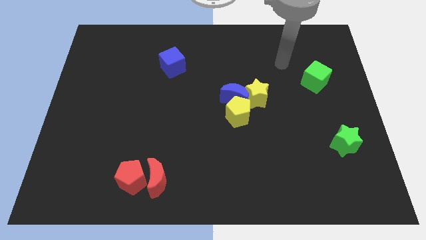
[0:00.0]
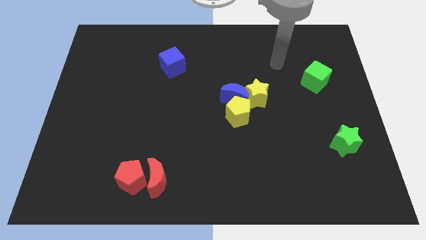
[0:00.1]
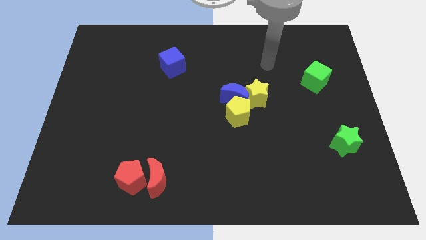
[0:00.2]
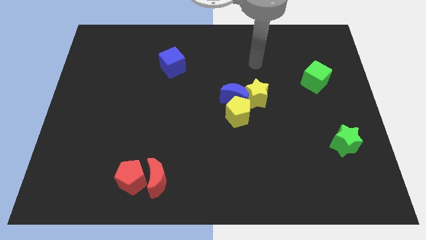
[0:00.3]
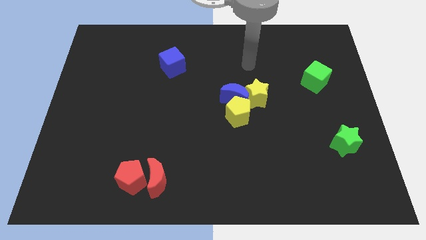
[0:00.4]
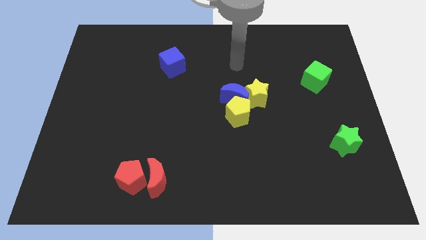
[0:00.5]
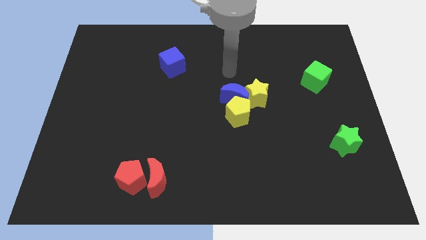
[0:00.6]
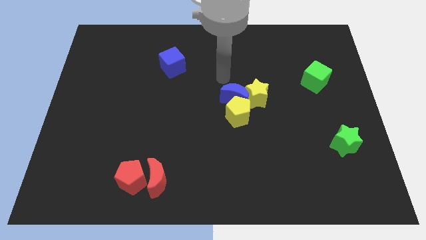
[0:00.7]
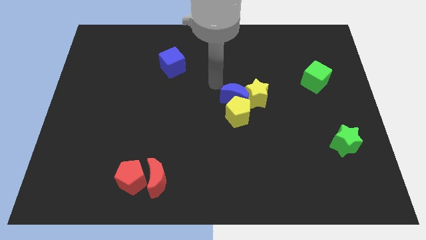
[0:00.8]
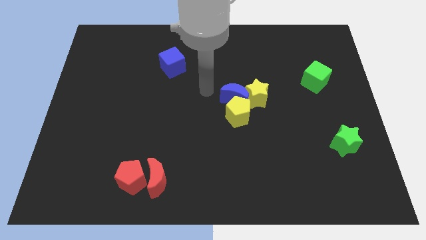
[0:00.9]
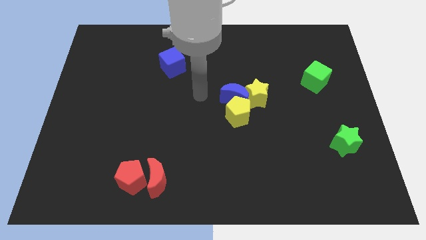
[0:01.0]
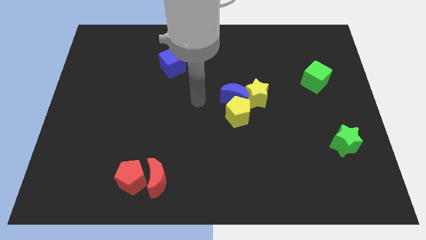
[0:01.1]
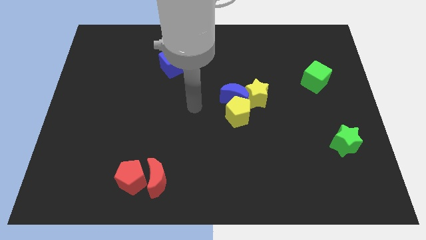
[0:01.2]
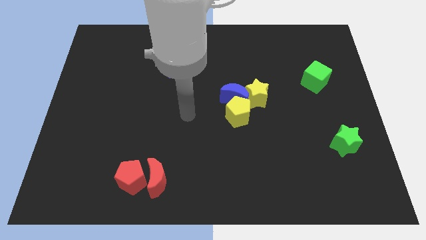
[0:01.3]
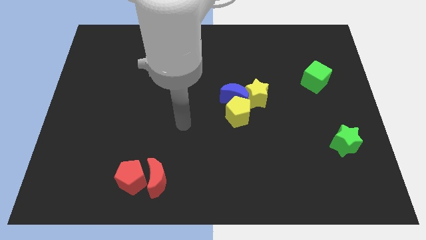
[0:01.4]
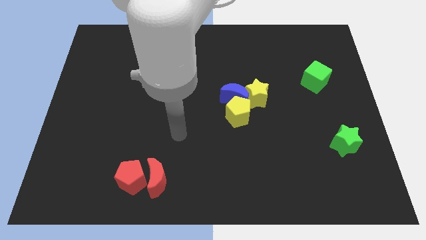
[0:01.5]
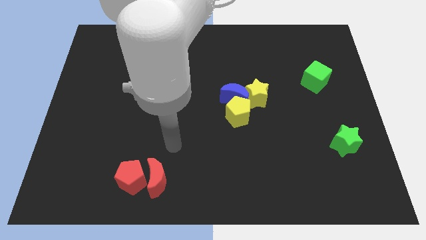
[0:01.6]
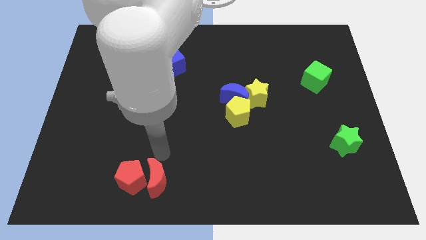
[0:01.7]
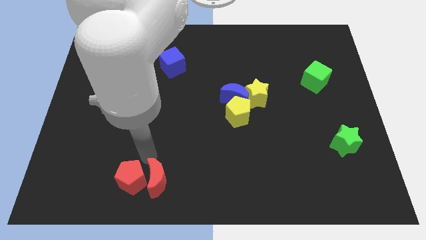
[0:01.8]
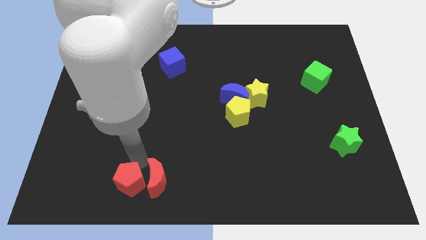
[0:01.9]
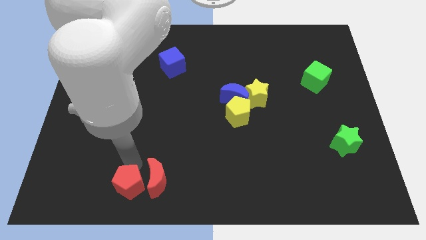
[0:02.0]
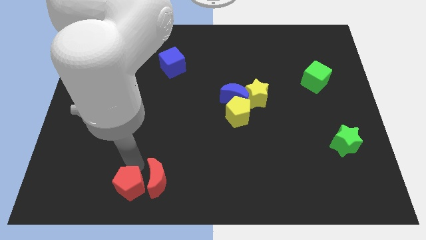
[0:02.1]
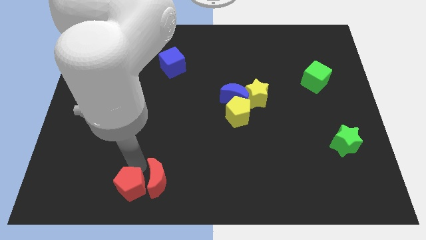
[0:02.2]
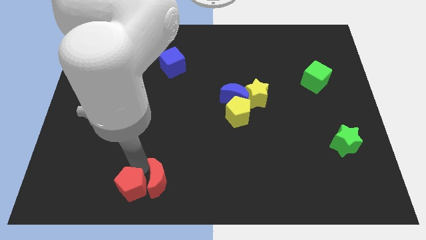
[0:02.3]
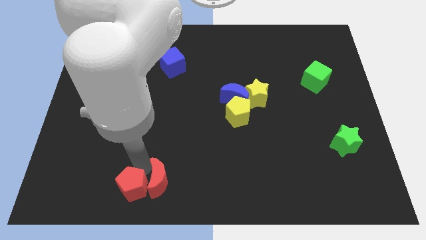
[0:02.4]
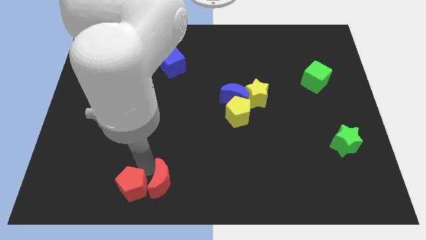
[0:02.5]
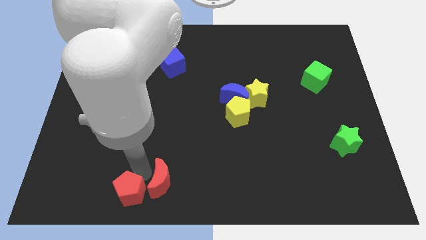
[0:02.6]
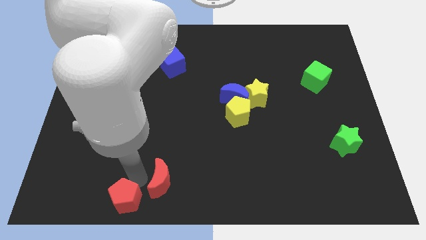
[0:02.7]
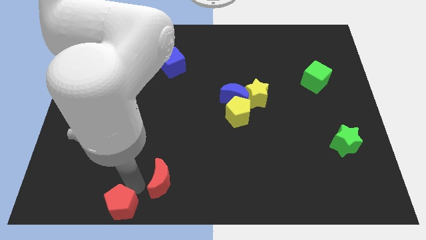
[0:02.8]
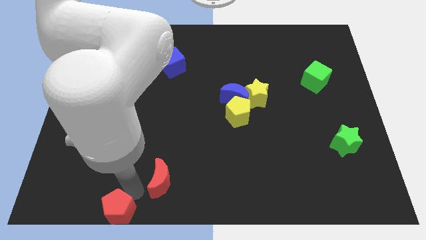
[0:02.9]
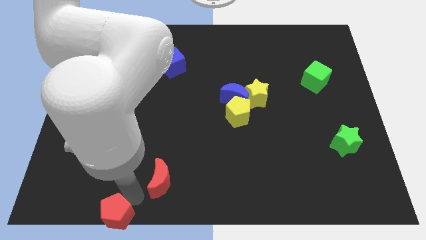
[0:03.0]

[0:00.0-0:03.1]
separate the red moon from the red pentagon

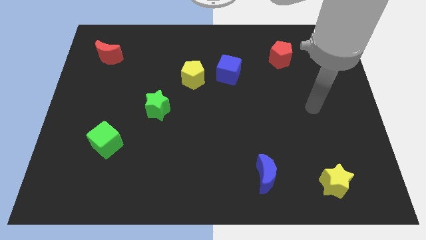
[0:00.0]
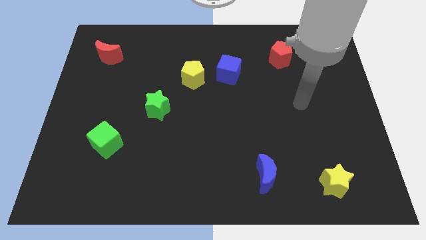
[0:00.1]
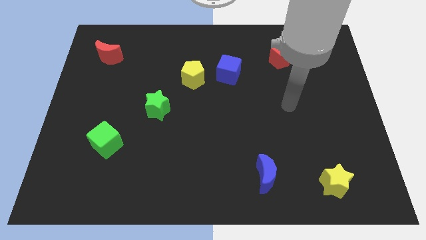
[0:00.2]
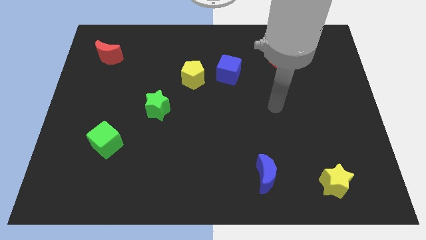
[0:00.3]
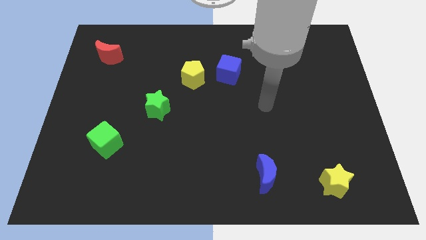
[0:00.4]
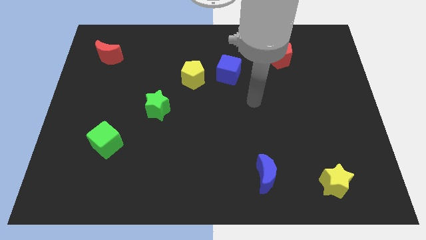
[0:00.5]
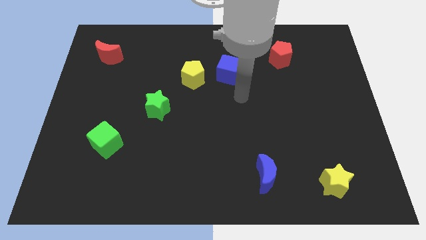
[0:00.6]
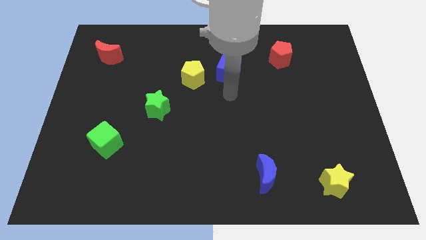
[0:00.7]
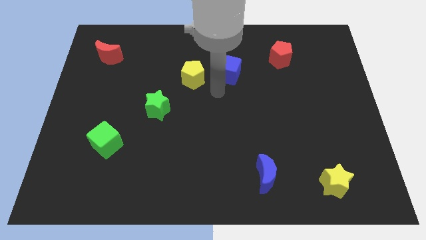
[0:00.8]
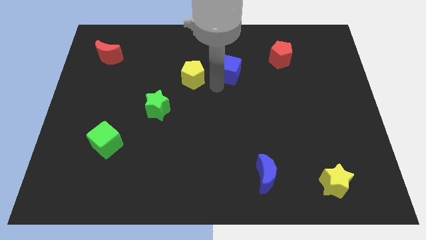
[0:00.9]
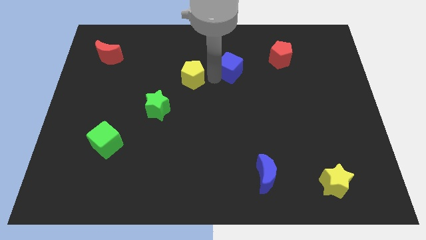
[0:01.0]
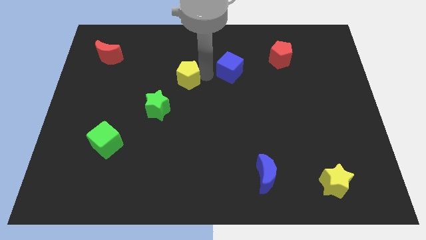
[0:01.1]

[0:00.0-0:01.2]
separate the blue cube from the yellow pentagon

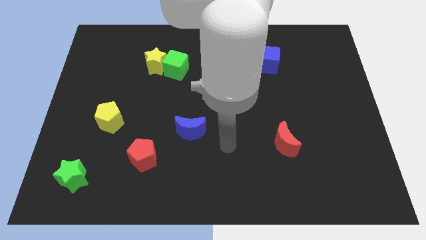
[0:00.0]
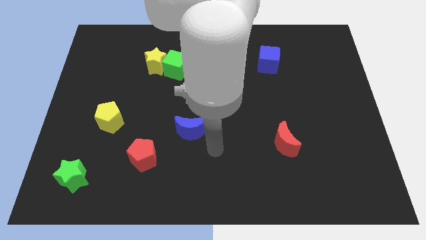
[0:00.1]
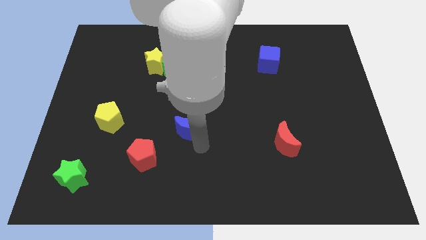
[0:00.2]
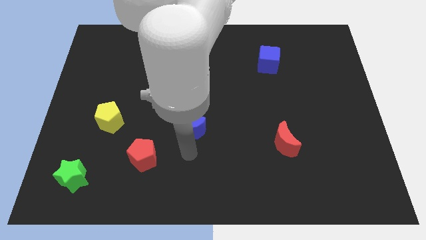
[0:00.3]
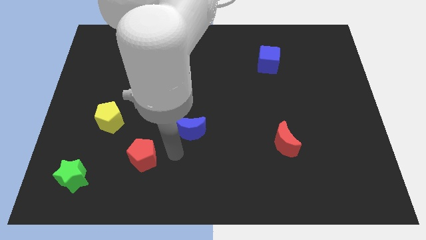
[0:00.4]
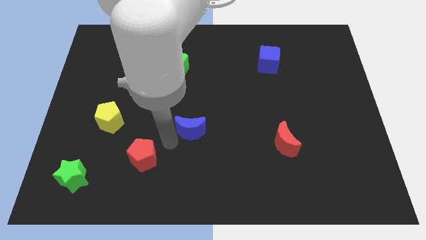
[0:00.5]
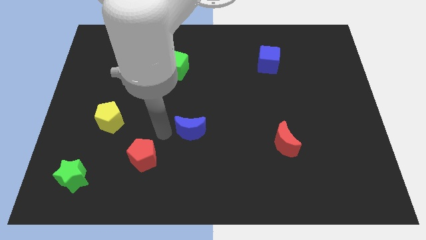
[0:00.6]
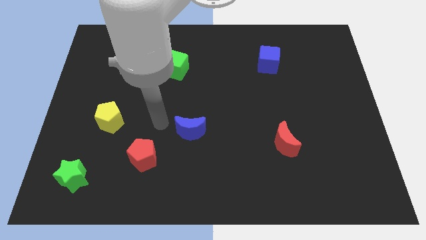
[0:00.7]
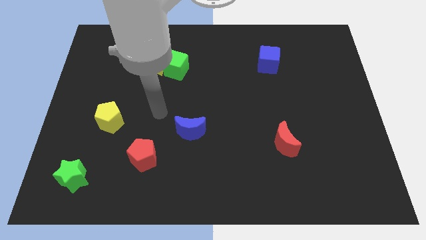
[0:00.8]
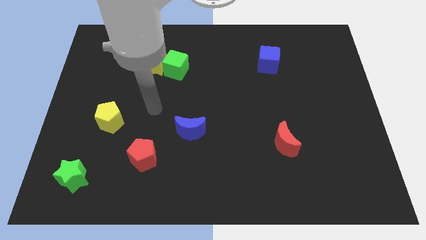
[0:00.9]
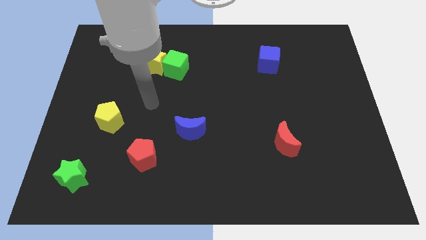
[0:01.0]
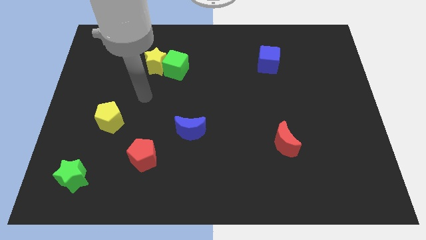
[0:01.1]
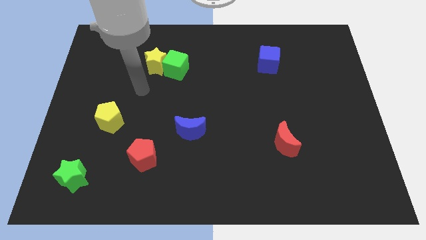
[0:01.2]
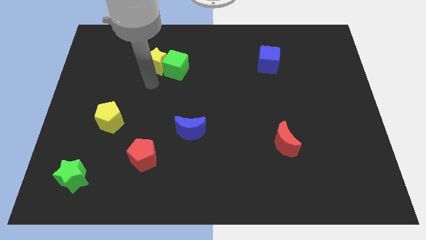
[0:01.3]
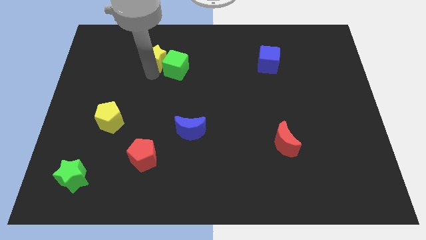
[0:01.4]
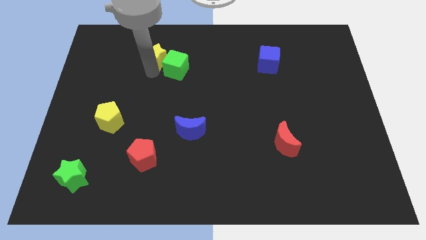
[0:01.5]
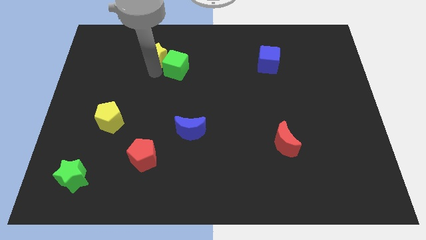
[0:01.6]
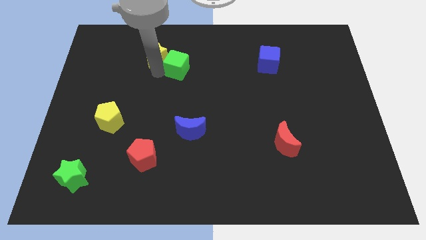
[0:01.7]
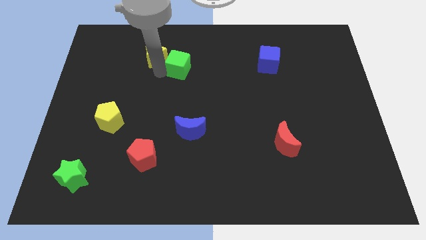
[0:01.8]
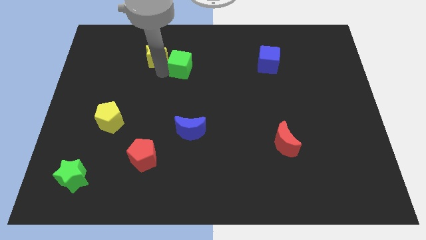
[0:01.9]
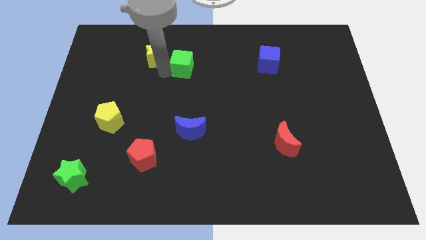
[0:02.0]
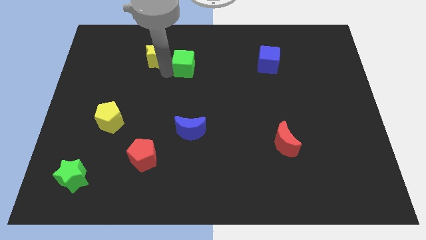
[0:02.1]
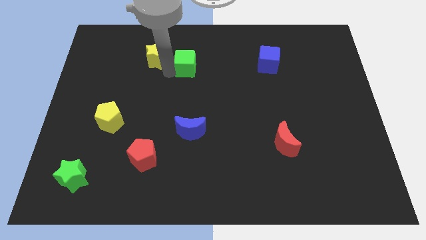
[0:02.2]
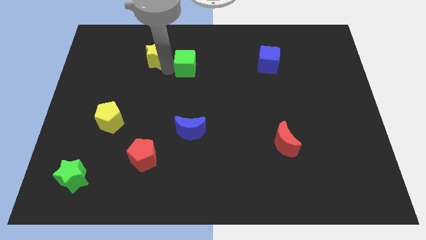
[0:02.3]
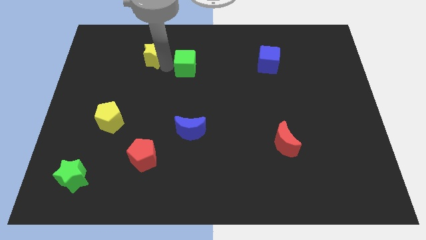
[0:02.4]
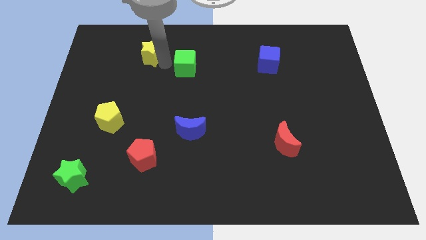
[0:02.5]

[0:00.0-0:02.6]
pull the green cube apart from the yellow star

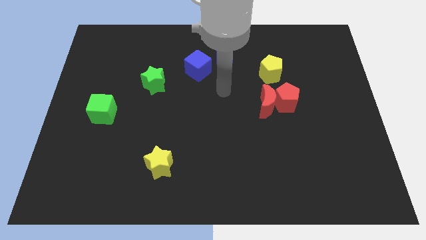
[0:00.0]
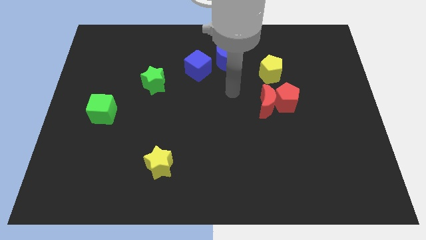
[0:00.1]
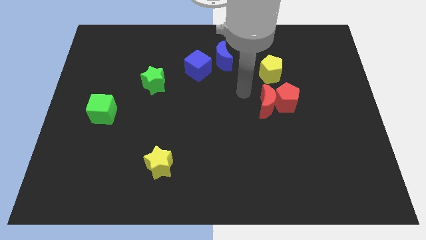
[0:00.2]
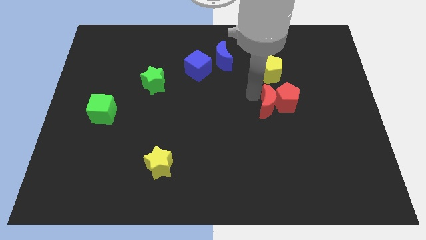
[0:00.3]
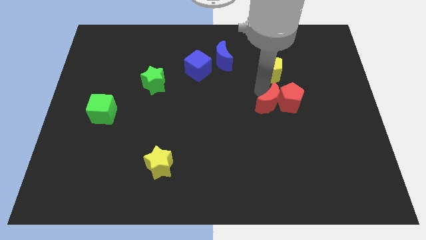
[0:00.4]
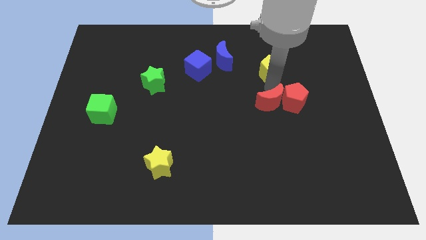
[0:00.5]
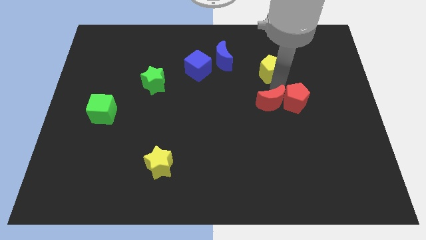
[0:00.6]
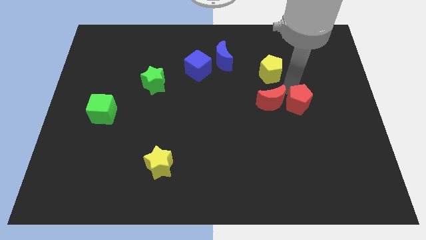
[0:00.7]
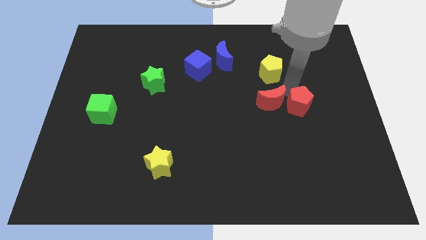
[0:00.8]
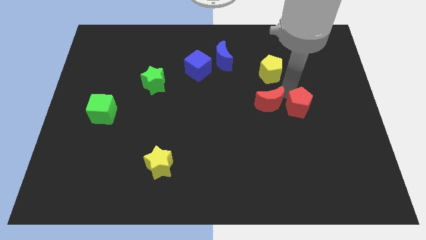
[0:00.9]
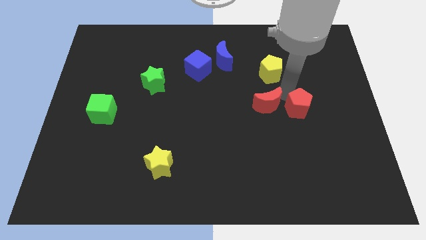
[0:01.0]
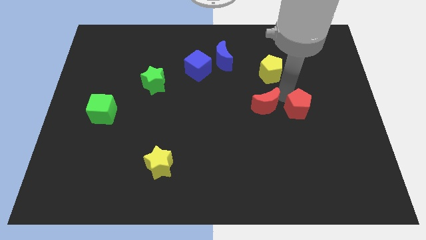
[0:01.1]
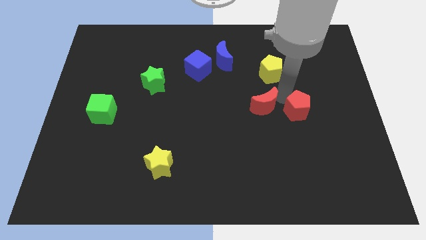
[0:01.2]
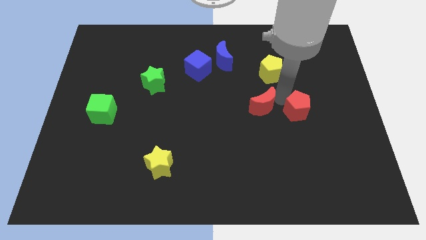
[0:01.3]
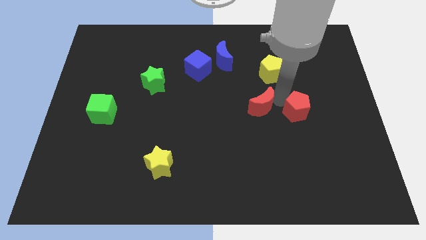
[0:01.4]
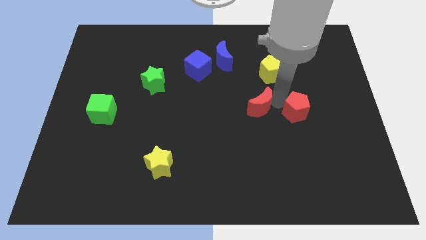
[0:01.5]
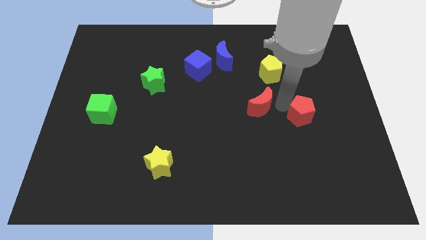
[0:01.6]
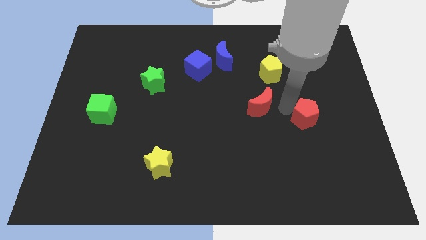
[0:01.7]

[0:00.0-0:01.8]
move the red moon away from the red pentagon

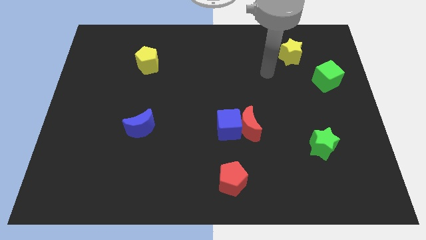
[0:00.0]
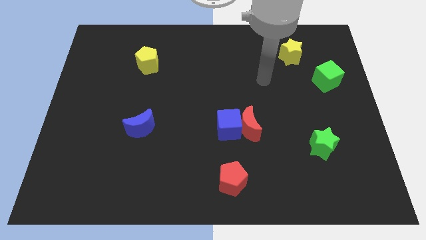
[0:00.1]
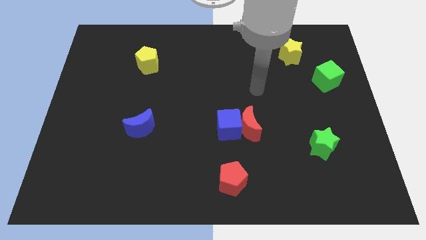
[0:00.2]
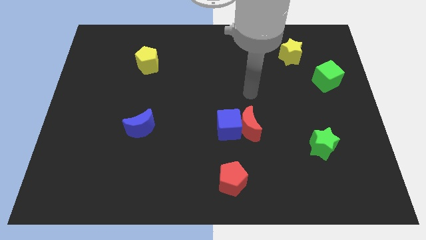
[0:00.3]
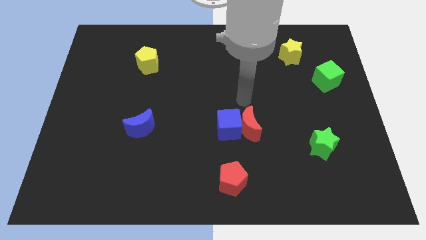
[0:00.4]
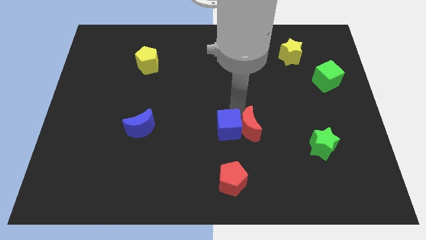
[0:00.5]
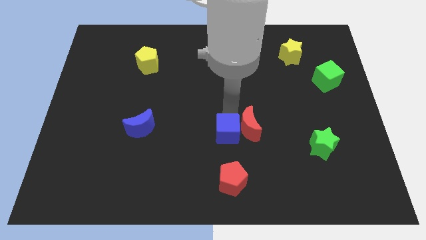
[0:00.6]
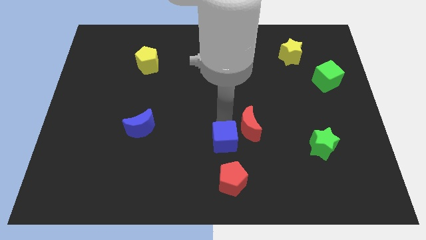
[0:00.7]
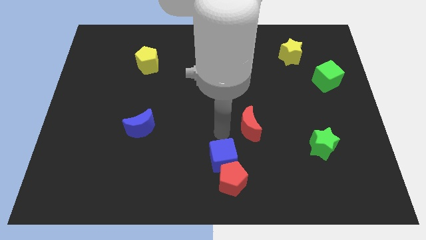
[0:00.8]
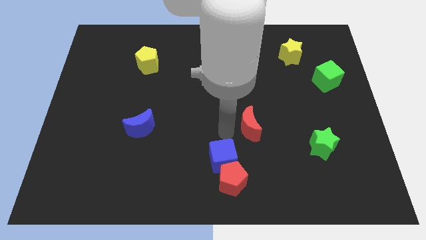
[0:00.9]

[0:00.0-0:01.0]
pull the red moon apart from the blue cube
